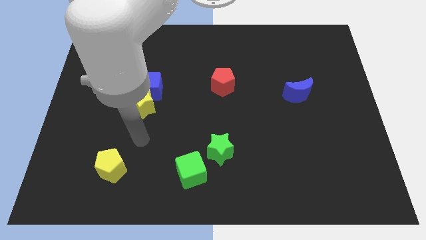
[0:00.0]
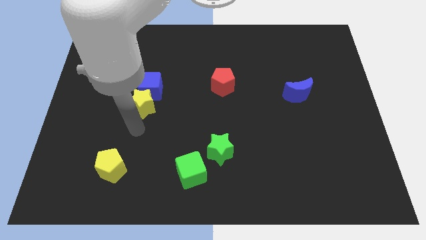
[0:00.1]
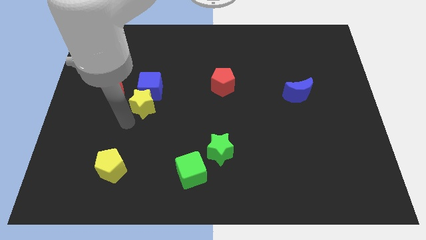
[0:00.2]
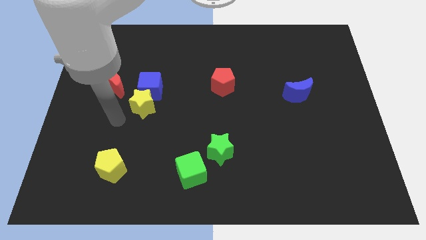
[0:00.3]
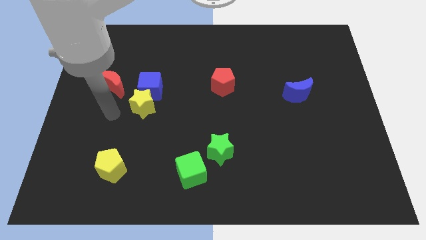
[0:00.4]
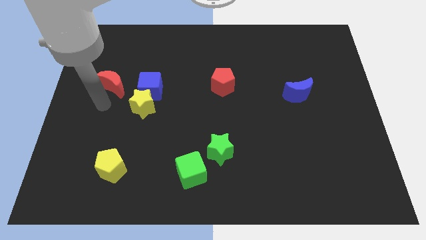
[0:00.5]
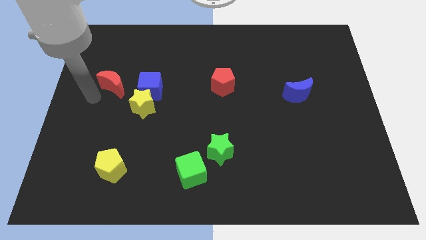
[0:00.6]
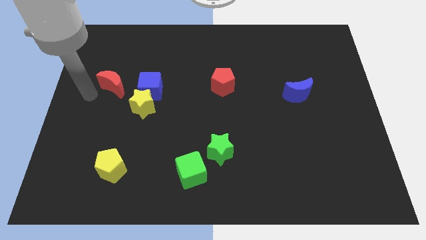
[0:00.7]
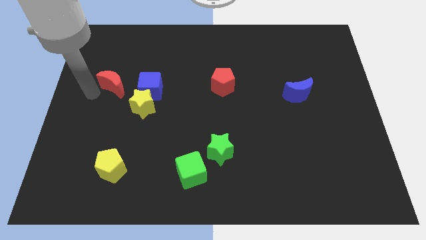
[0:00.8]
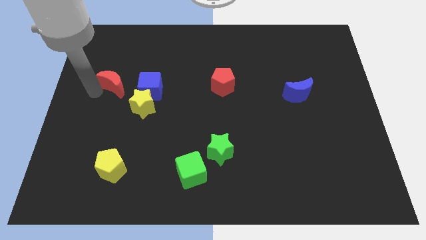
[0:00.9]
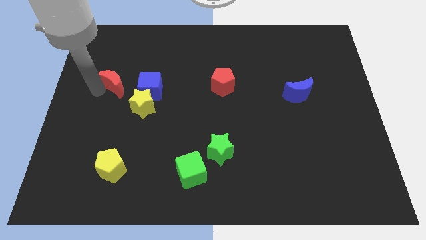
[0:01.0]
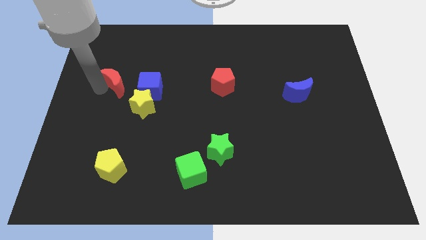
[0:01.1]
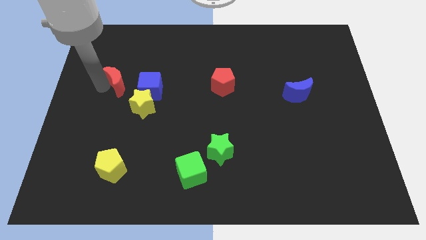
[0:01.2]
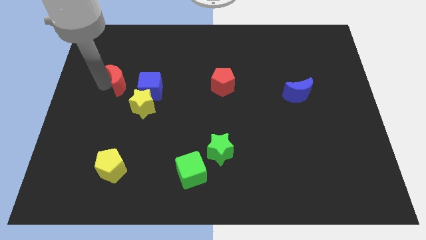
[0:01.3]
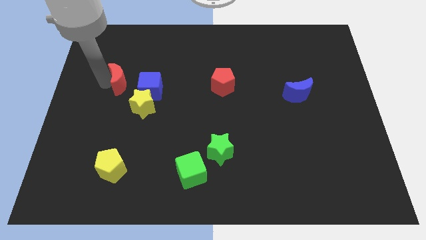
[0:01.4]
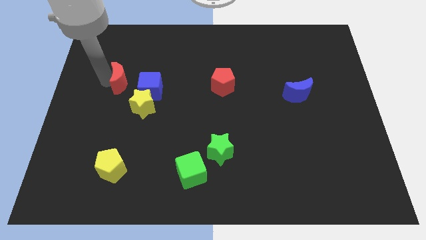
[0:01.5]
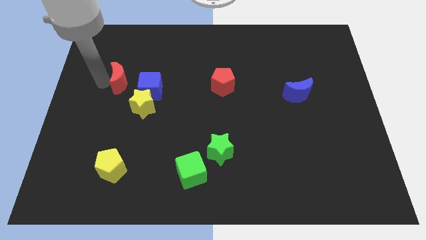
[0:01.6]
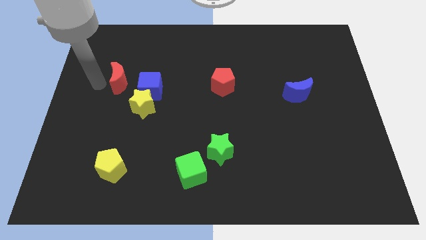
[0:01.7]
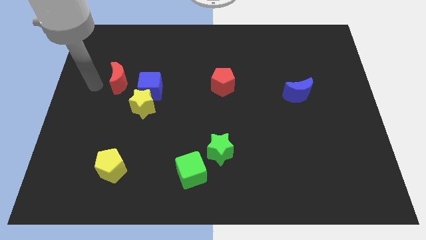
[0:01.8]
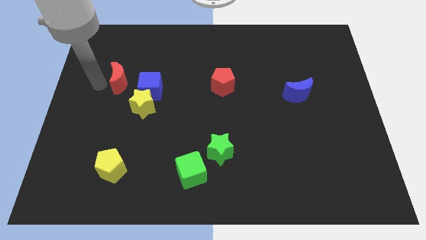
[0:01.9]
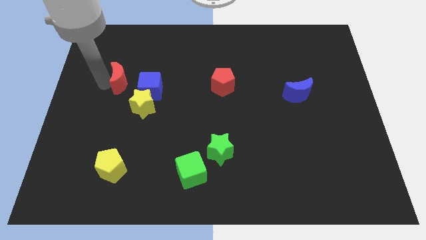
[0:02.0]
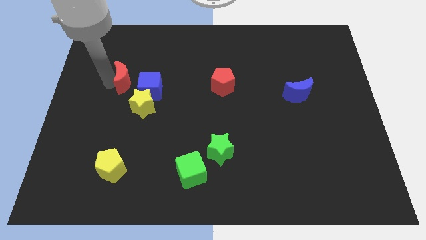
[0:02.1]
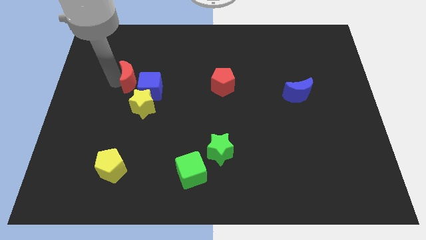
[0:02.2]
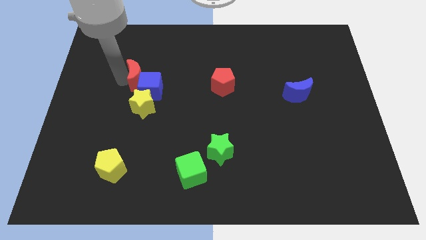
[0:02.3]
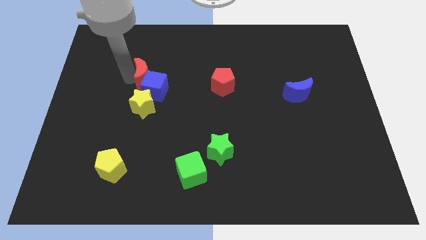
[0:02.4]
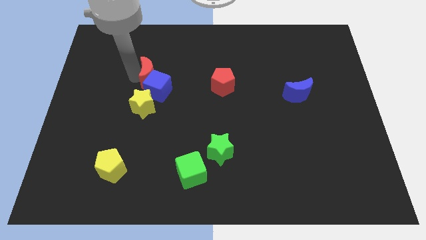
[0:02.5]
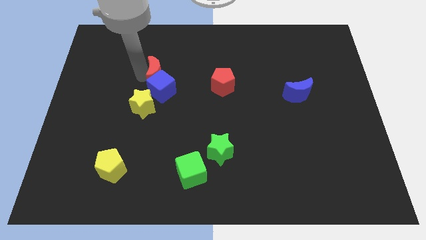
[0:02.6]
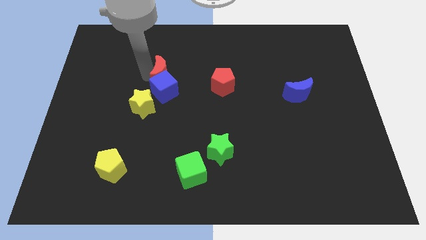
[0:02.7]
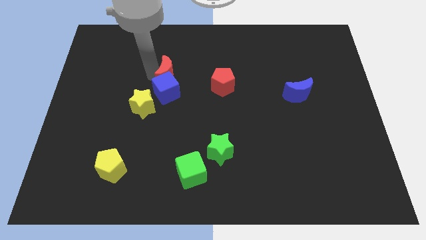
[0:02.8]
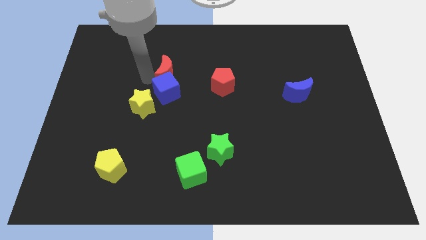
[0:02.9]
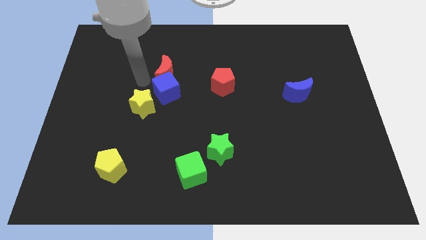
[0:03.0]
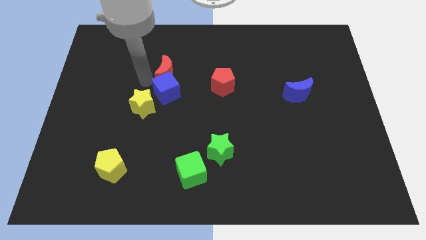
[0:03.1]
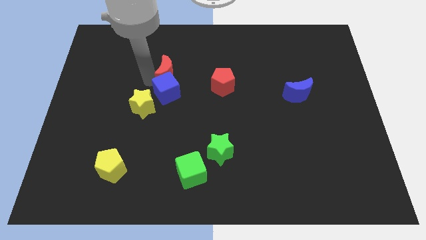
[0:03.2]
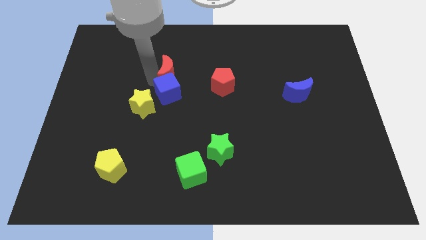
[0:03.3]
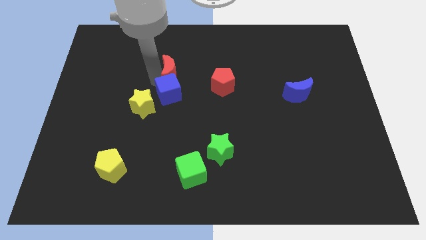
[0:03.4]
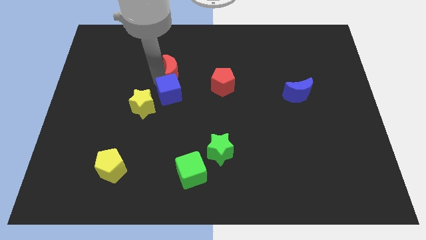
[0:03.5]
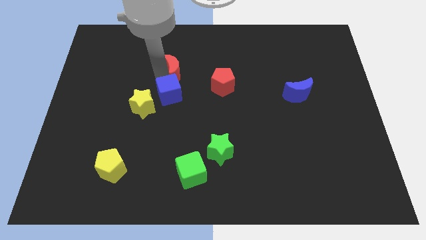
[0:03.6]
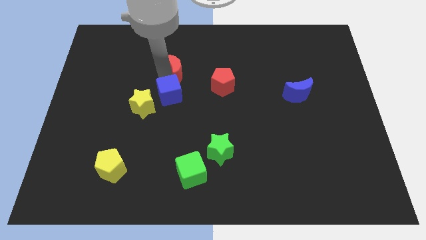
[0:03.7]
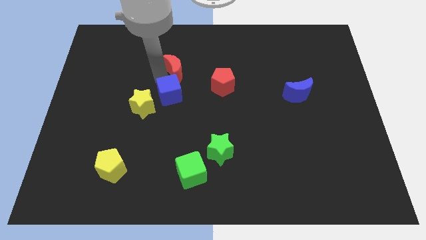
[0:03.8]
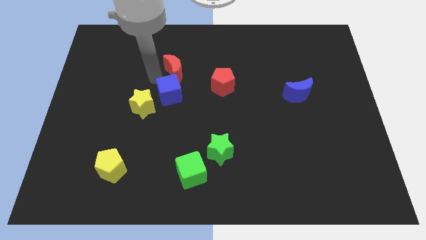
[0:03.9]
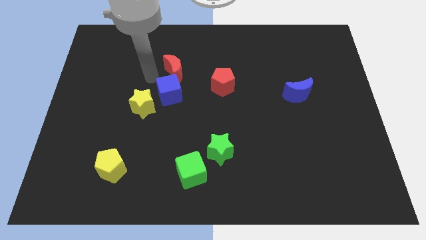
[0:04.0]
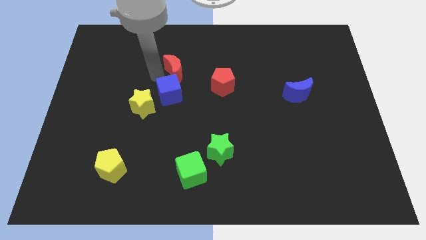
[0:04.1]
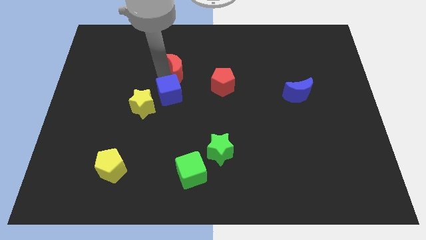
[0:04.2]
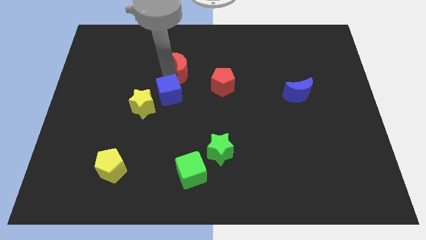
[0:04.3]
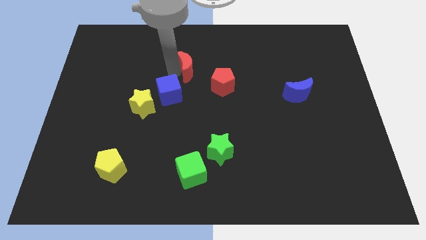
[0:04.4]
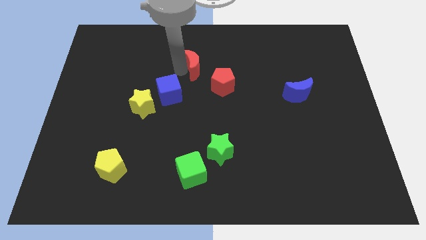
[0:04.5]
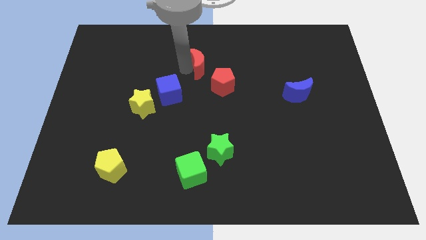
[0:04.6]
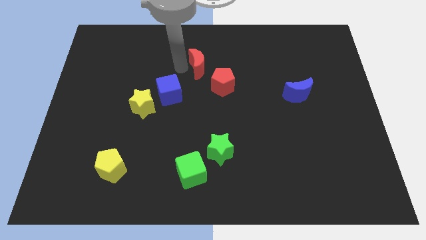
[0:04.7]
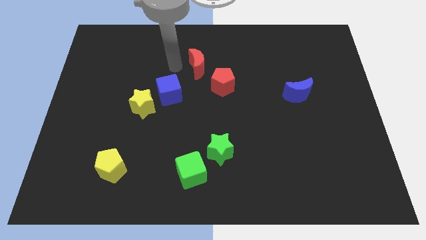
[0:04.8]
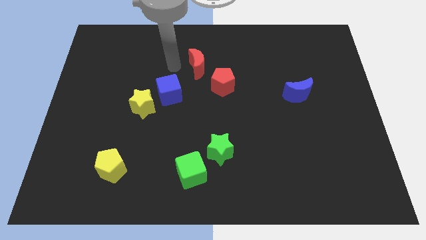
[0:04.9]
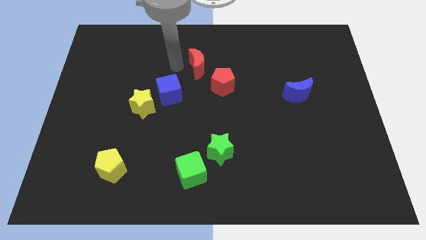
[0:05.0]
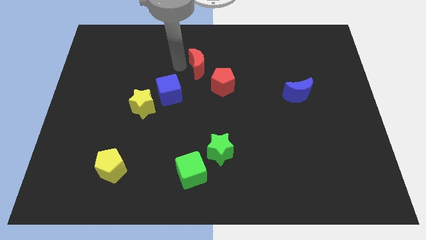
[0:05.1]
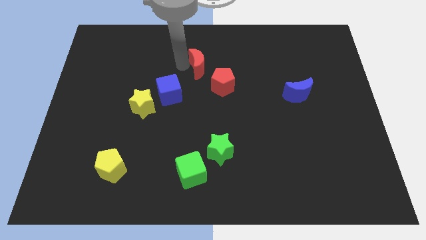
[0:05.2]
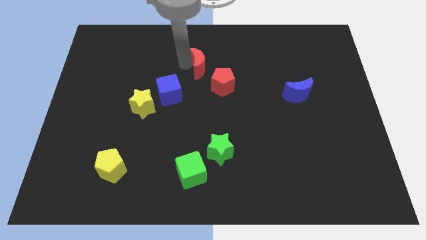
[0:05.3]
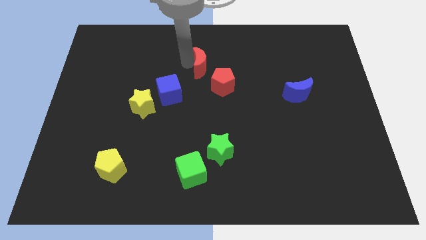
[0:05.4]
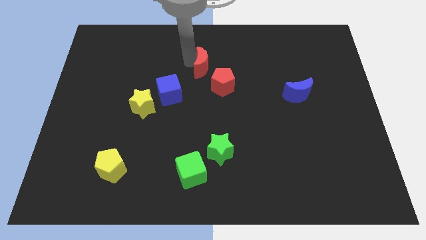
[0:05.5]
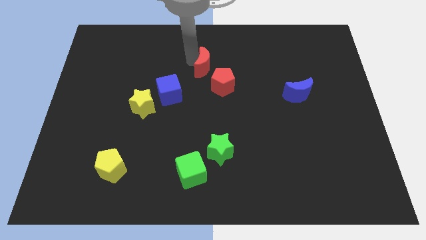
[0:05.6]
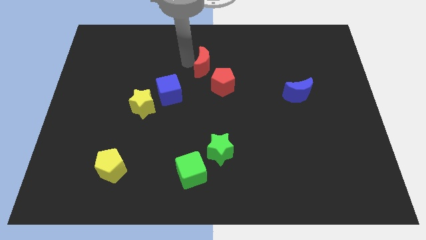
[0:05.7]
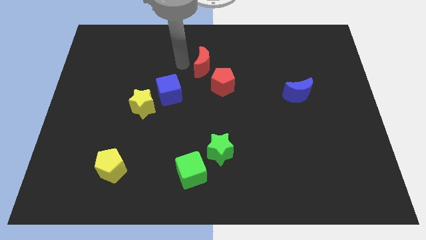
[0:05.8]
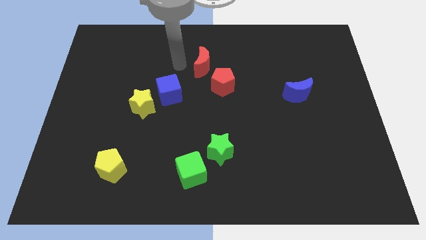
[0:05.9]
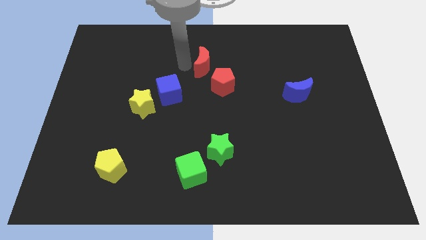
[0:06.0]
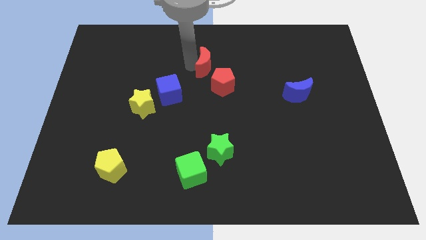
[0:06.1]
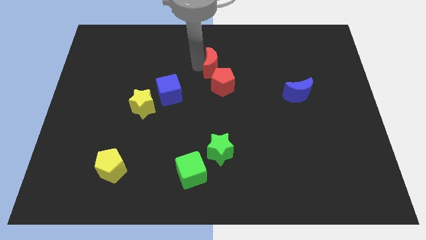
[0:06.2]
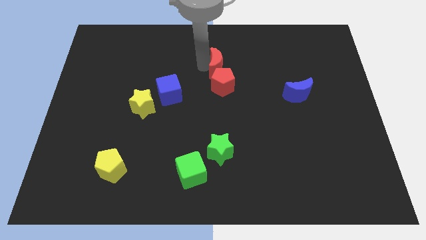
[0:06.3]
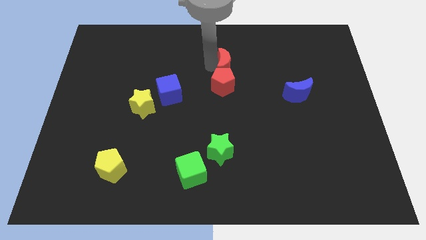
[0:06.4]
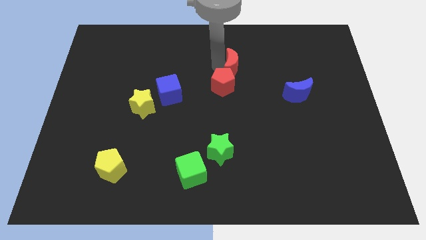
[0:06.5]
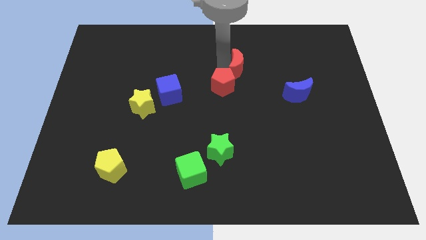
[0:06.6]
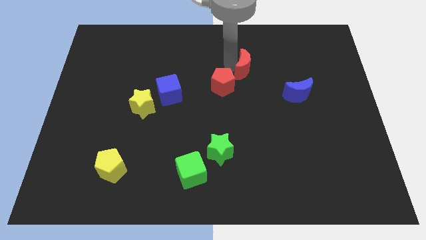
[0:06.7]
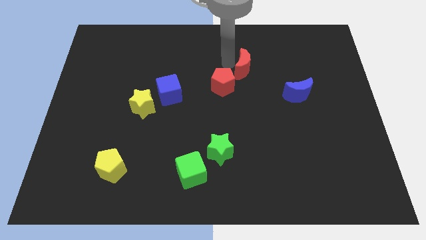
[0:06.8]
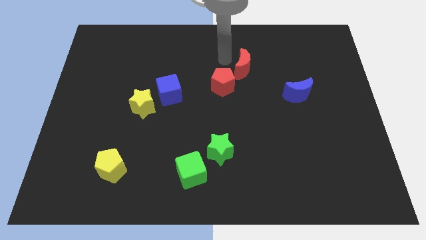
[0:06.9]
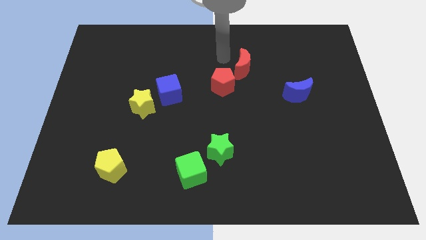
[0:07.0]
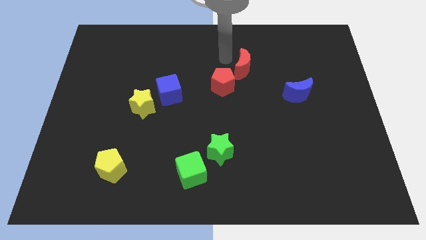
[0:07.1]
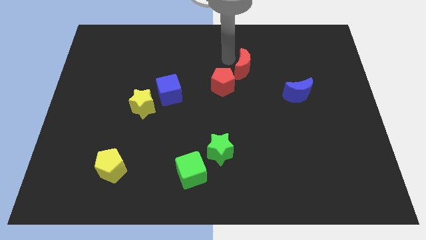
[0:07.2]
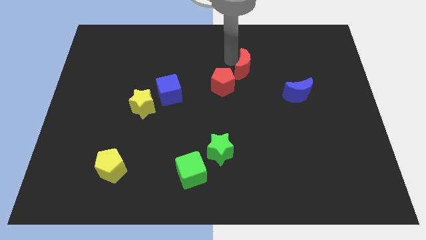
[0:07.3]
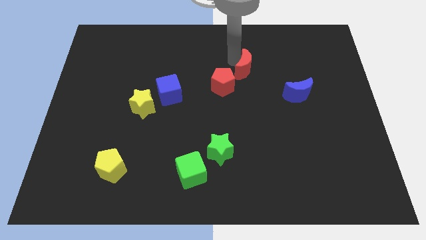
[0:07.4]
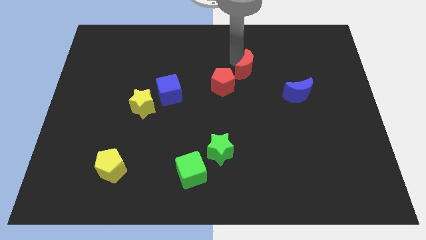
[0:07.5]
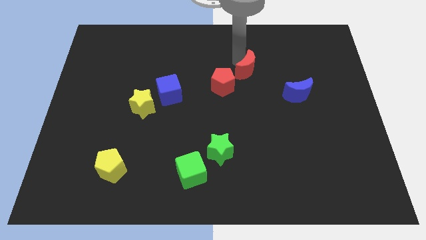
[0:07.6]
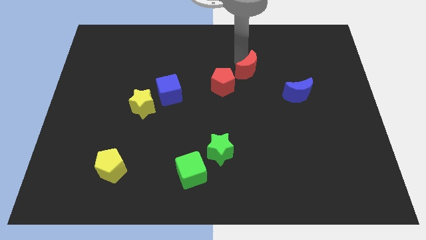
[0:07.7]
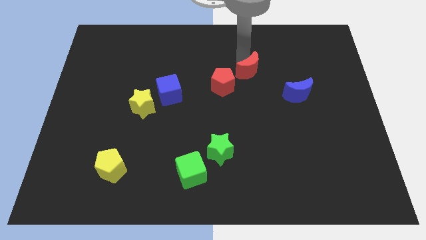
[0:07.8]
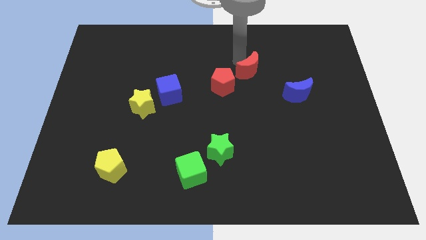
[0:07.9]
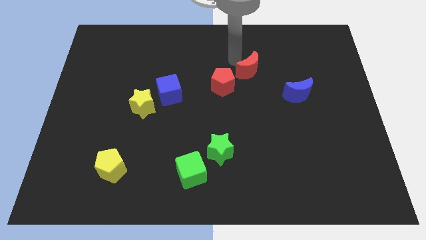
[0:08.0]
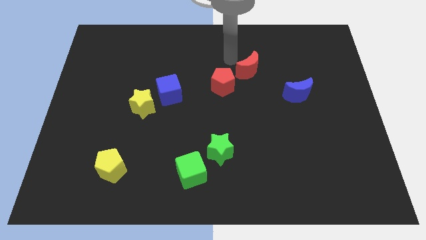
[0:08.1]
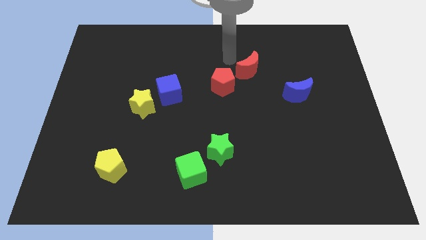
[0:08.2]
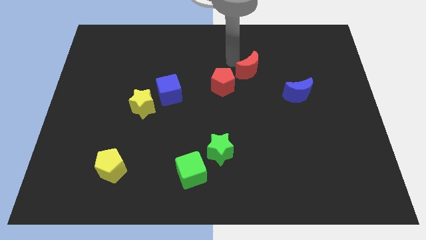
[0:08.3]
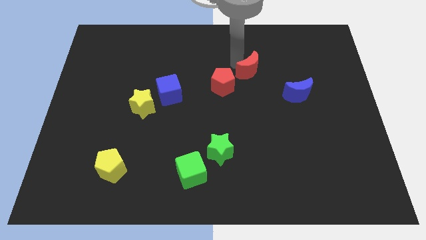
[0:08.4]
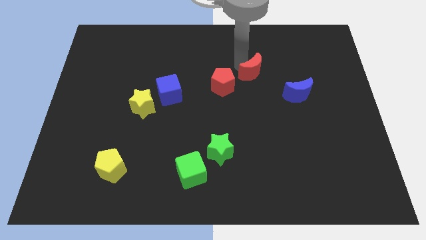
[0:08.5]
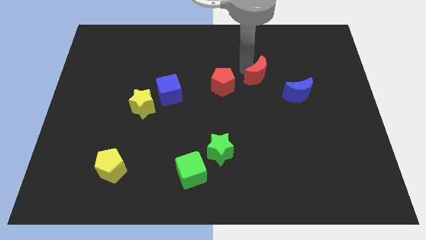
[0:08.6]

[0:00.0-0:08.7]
slide the red moon to the top left side of the blue moon
